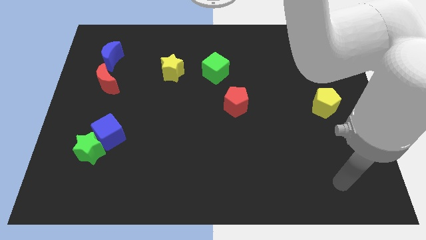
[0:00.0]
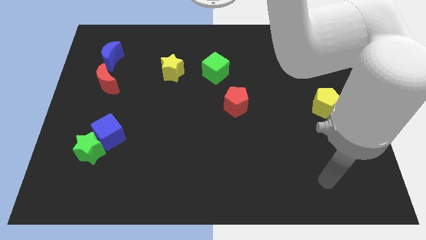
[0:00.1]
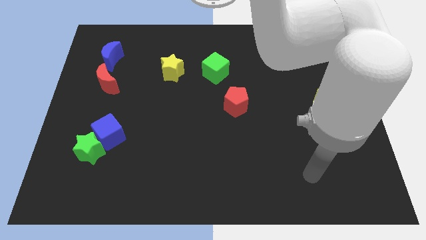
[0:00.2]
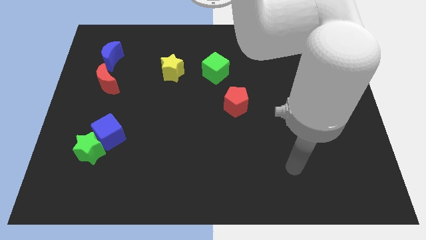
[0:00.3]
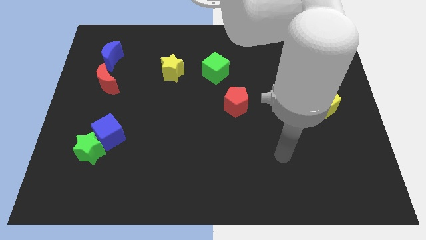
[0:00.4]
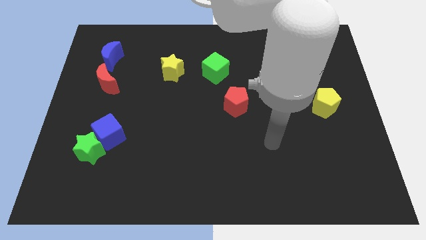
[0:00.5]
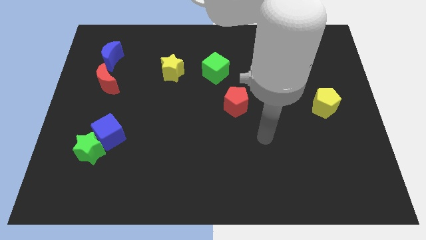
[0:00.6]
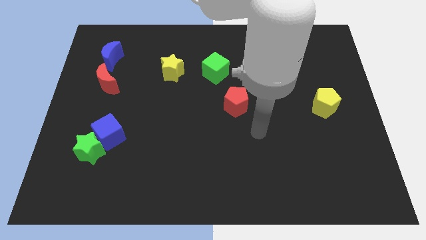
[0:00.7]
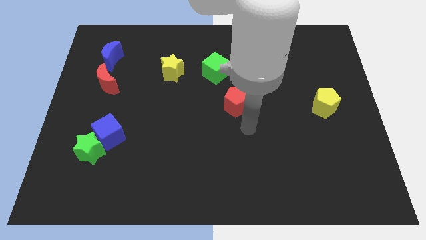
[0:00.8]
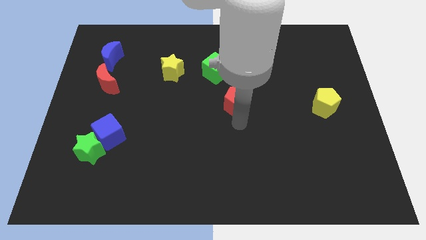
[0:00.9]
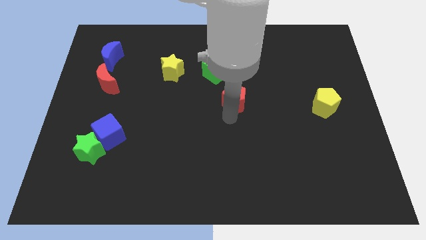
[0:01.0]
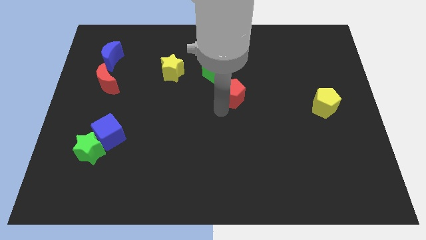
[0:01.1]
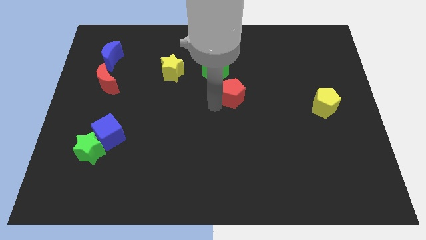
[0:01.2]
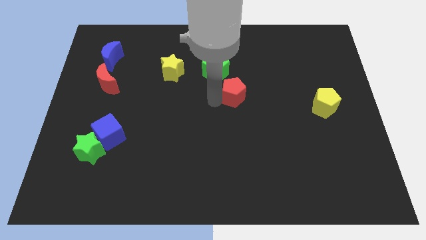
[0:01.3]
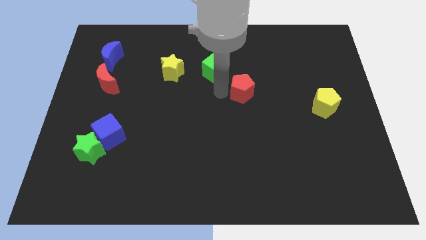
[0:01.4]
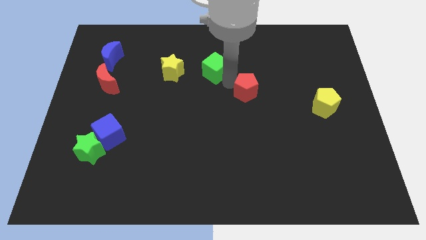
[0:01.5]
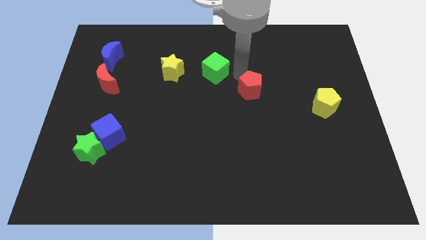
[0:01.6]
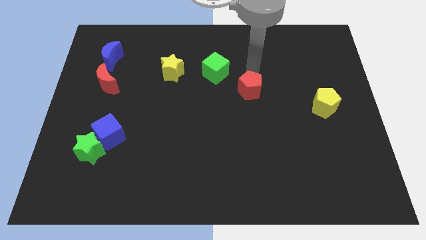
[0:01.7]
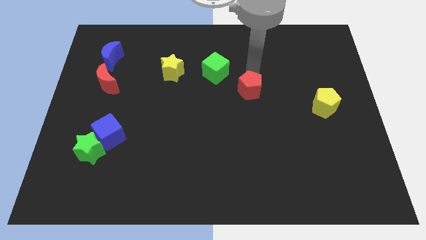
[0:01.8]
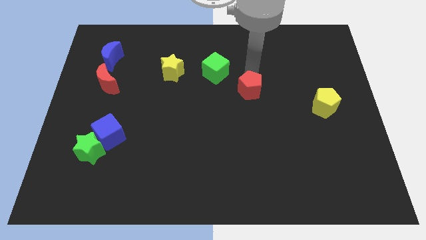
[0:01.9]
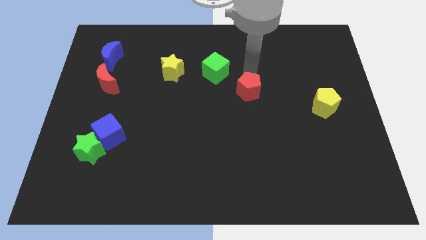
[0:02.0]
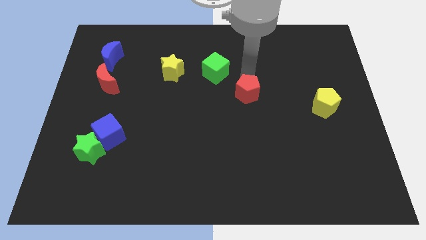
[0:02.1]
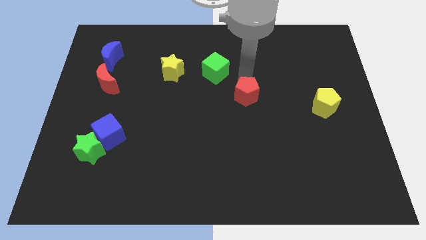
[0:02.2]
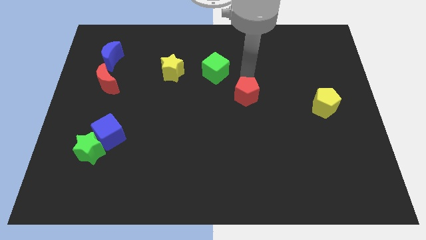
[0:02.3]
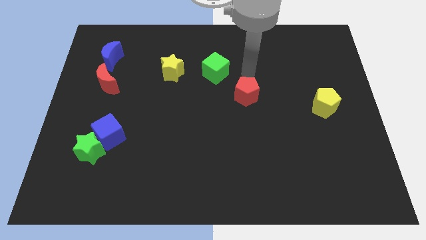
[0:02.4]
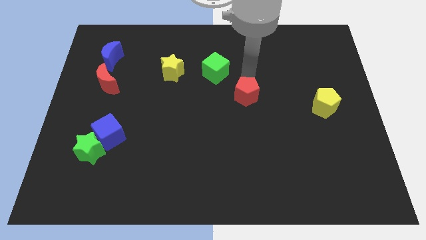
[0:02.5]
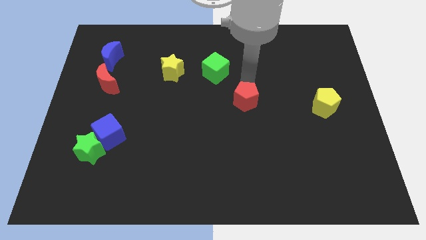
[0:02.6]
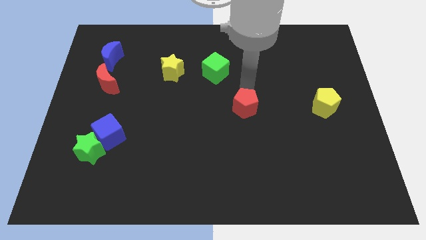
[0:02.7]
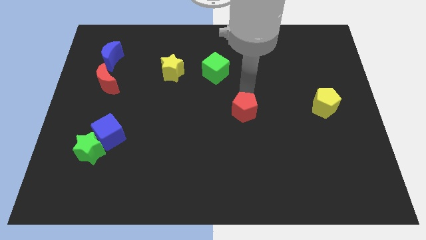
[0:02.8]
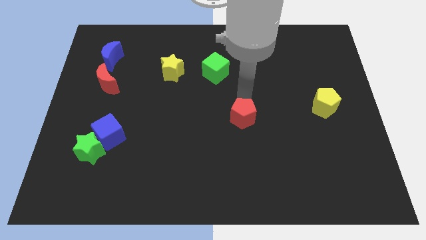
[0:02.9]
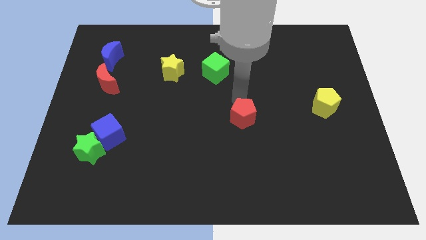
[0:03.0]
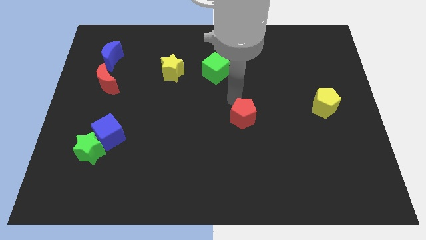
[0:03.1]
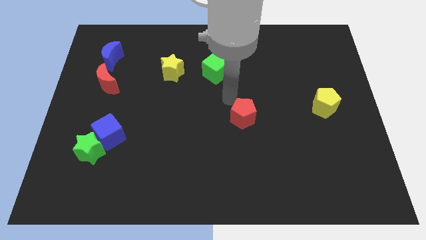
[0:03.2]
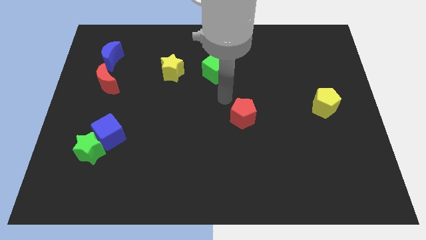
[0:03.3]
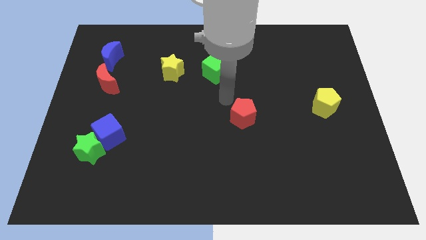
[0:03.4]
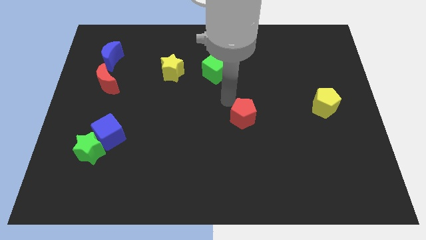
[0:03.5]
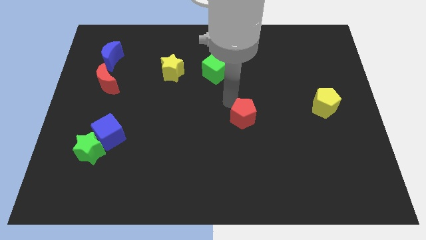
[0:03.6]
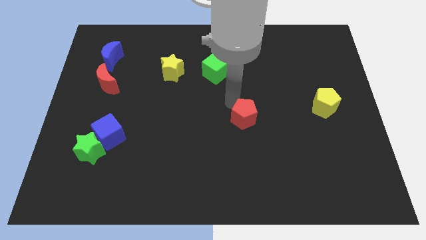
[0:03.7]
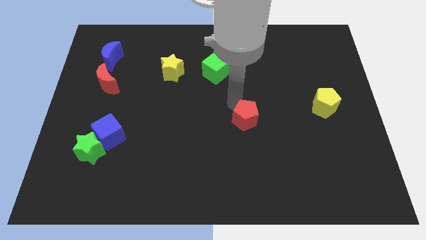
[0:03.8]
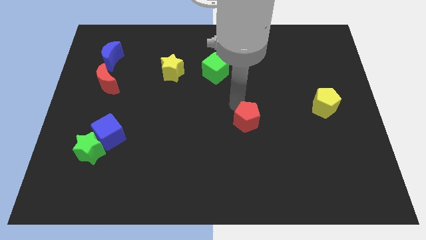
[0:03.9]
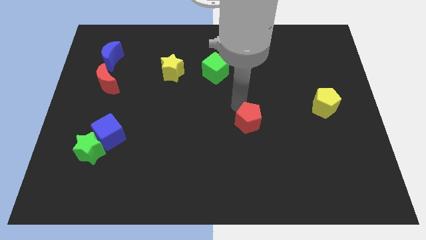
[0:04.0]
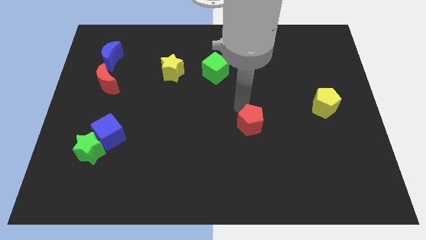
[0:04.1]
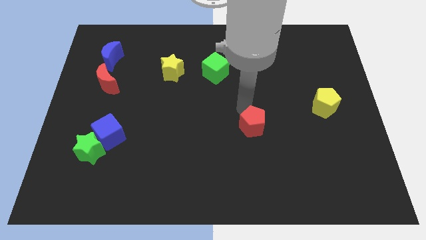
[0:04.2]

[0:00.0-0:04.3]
move the red pentagon a little bit down and to the right diagonally

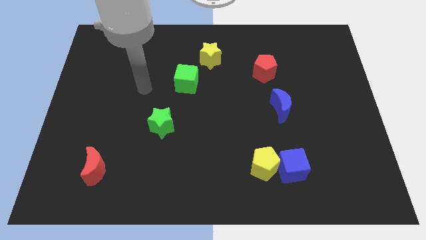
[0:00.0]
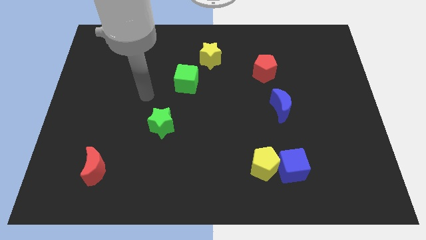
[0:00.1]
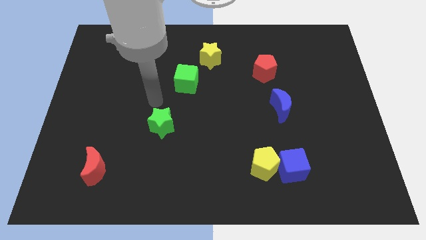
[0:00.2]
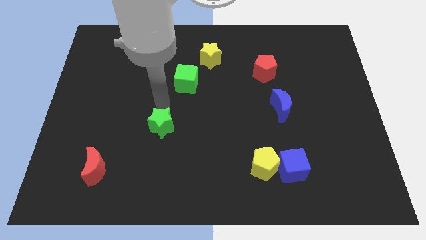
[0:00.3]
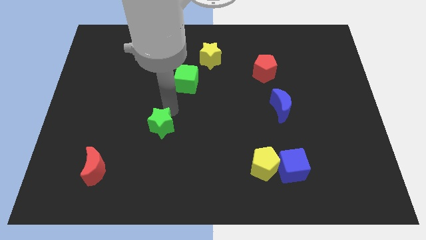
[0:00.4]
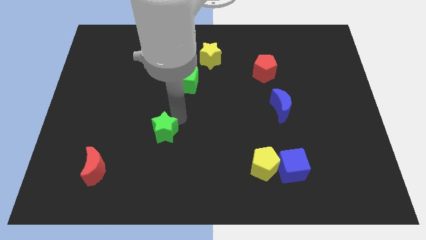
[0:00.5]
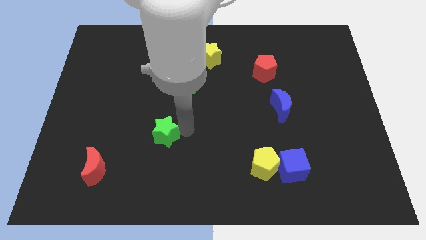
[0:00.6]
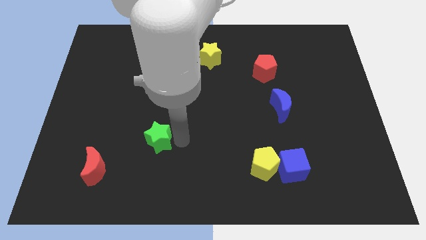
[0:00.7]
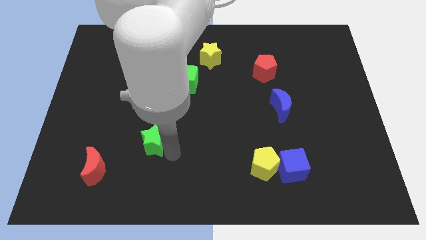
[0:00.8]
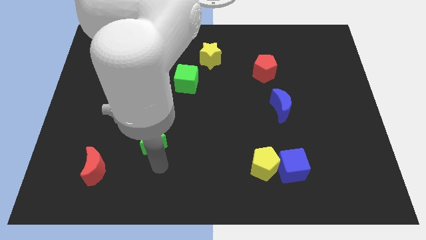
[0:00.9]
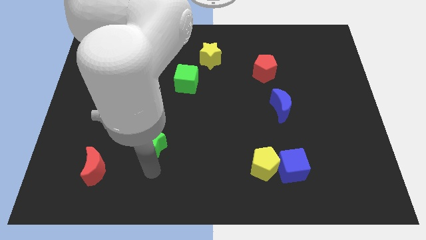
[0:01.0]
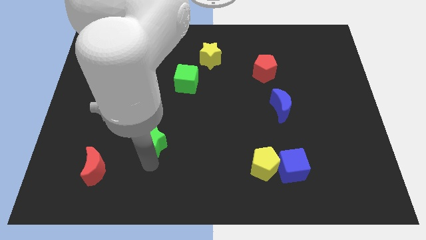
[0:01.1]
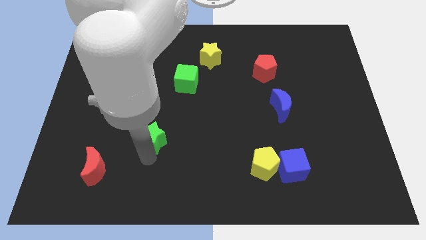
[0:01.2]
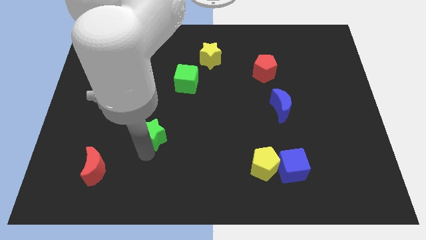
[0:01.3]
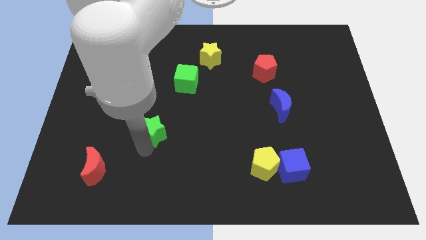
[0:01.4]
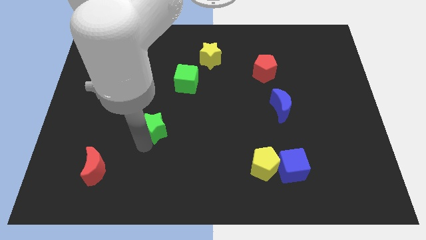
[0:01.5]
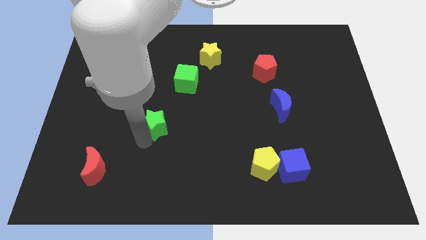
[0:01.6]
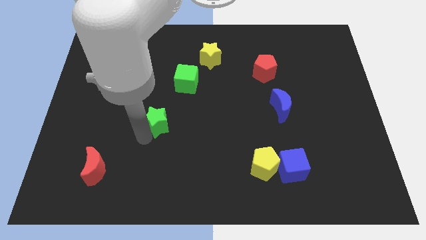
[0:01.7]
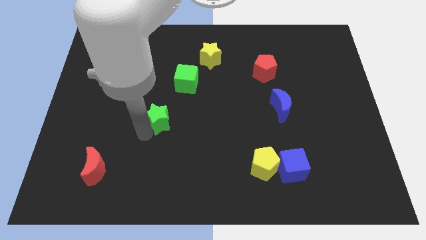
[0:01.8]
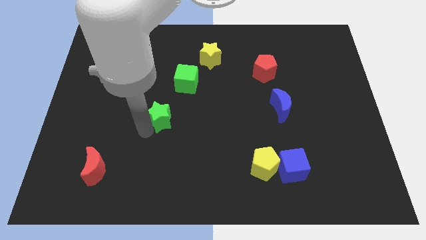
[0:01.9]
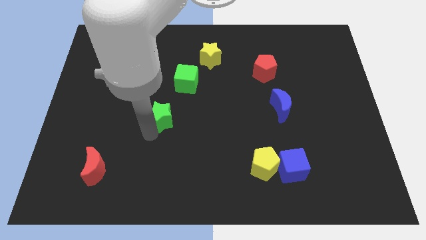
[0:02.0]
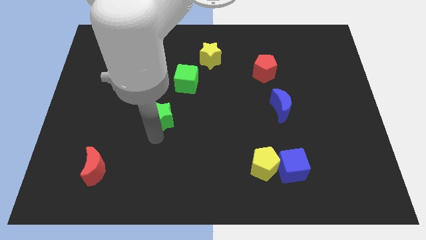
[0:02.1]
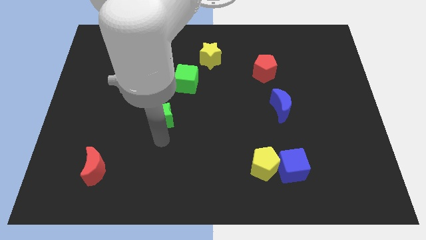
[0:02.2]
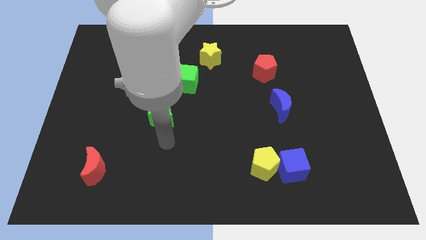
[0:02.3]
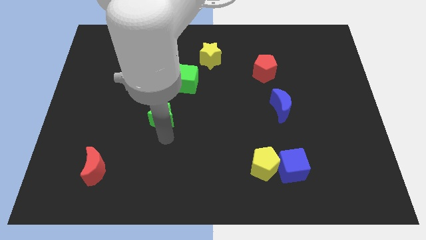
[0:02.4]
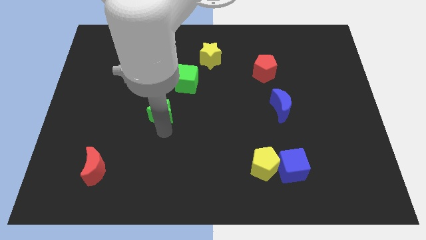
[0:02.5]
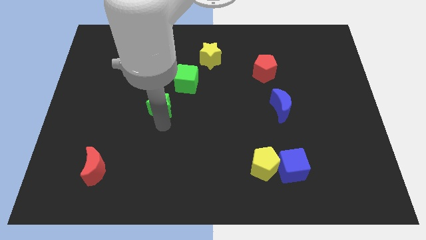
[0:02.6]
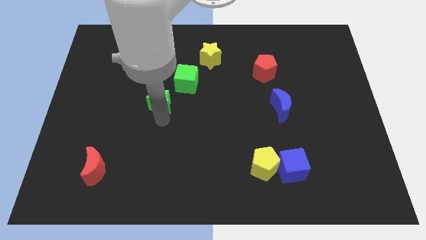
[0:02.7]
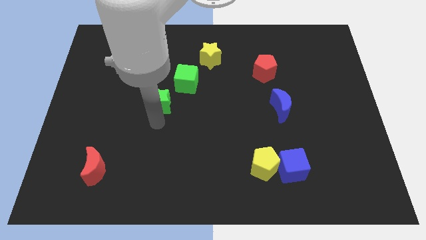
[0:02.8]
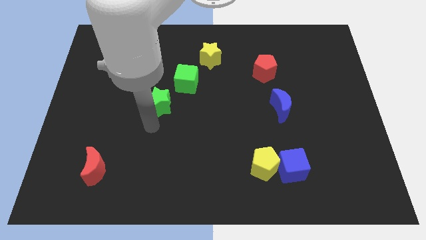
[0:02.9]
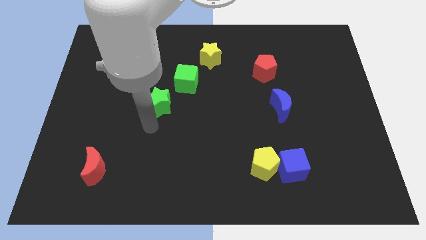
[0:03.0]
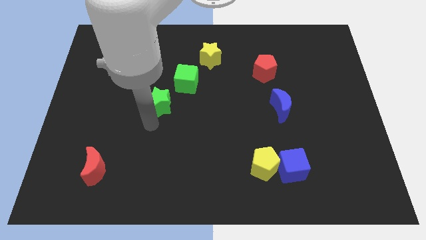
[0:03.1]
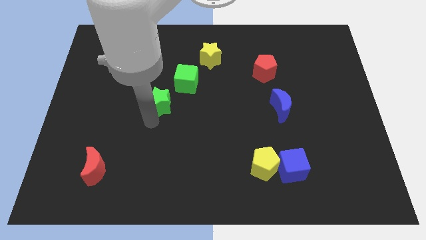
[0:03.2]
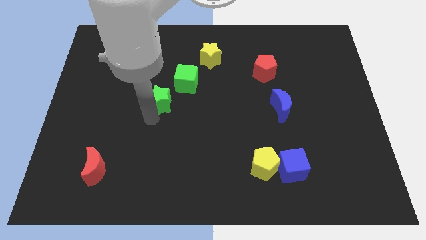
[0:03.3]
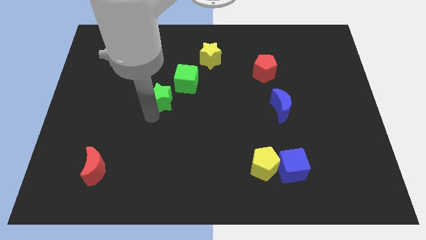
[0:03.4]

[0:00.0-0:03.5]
slightly slide the green star upwards

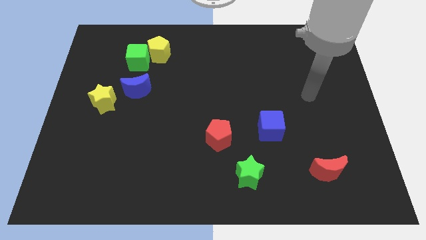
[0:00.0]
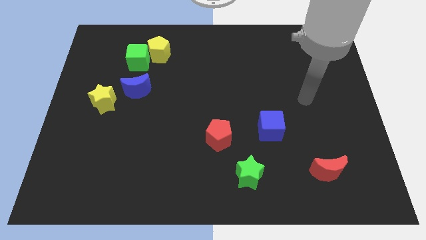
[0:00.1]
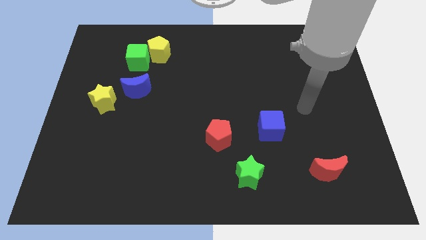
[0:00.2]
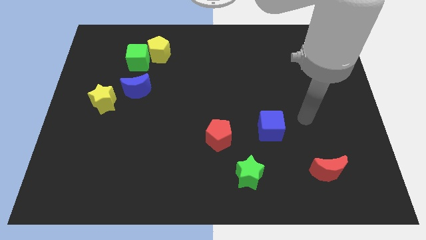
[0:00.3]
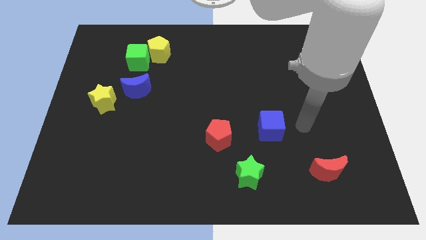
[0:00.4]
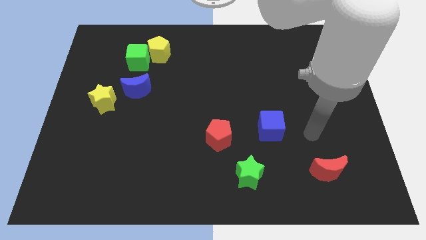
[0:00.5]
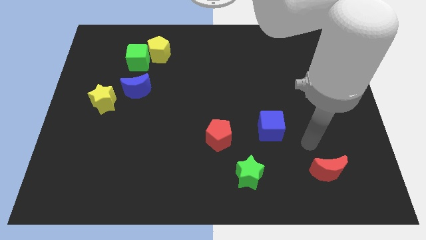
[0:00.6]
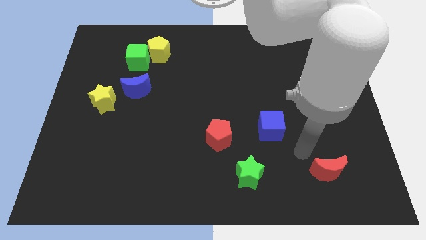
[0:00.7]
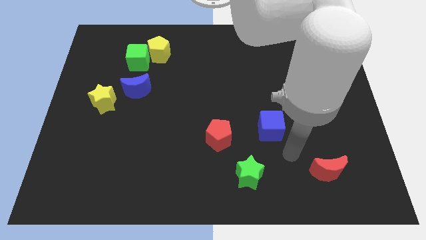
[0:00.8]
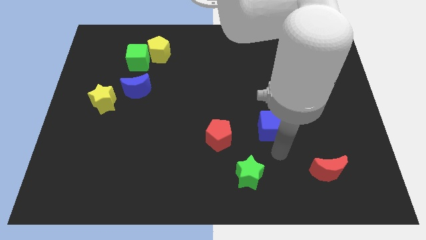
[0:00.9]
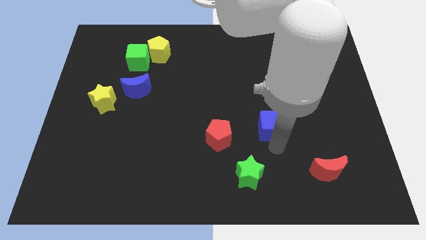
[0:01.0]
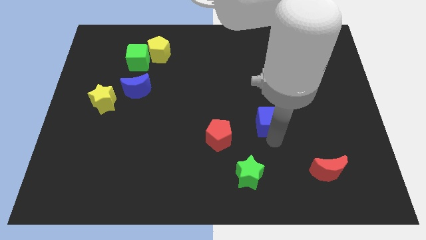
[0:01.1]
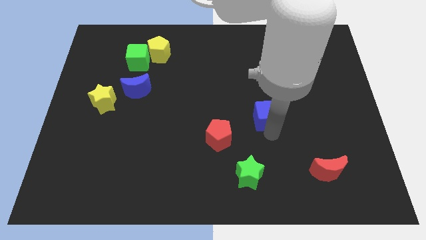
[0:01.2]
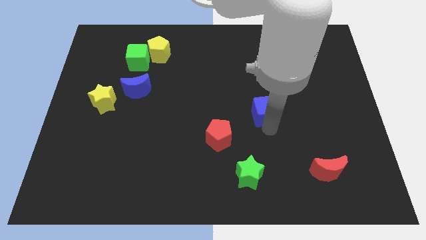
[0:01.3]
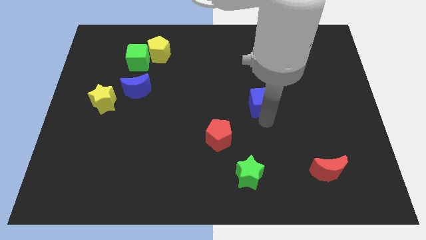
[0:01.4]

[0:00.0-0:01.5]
move the blue cube upwards a little bit
